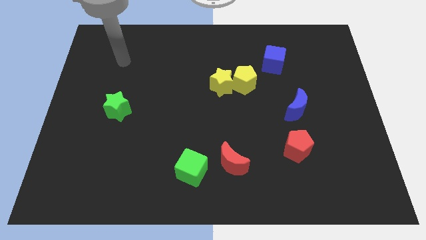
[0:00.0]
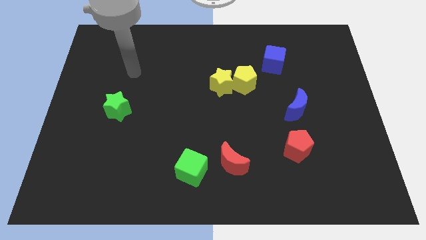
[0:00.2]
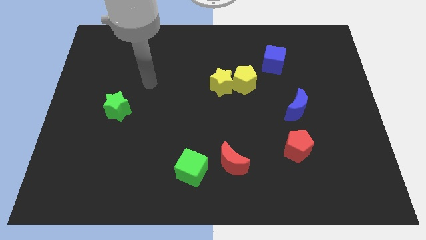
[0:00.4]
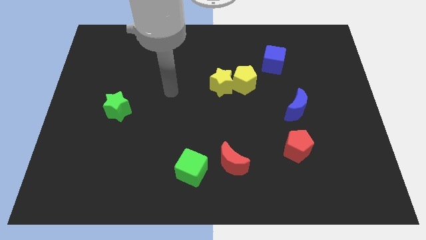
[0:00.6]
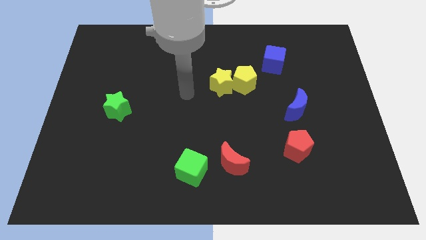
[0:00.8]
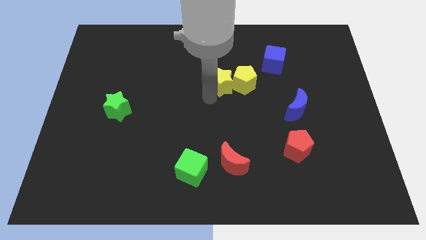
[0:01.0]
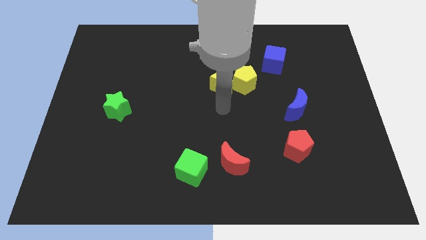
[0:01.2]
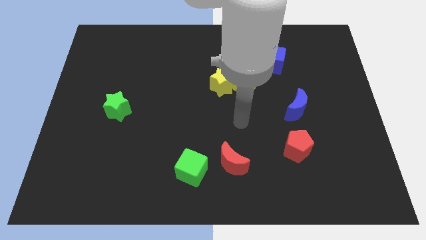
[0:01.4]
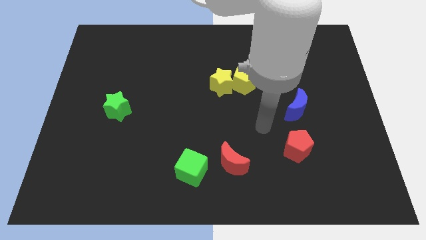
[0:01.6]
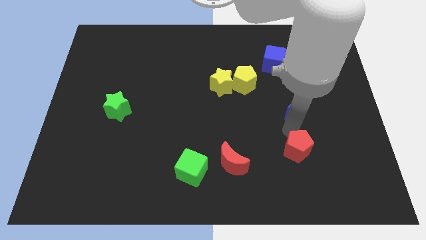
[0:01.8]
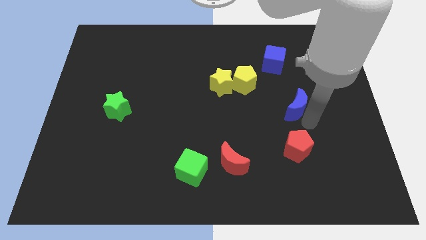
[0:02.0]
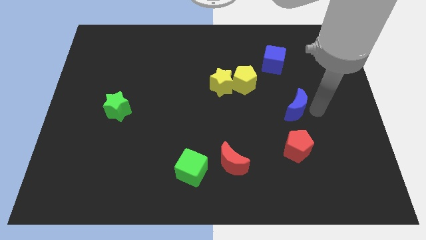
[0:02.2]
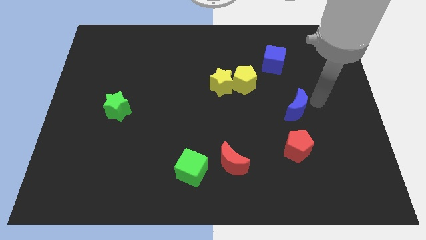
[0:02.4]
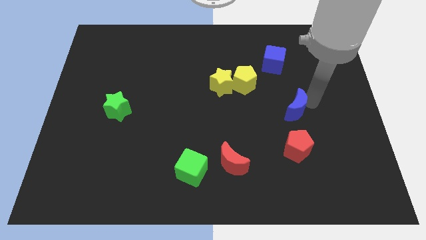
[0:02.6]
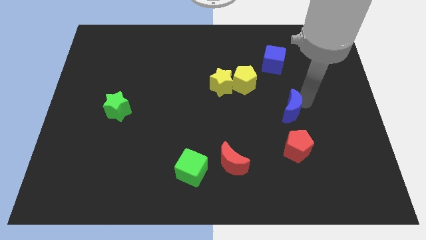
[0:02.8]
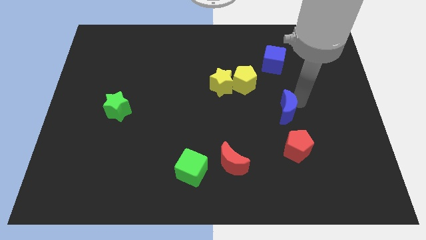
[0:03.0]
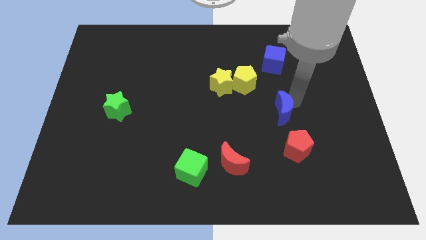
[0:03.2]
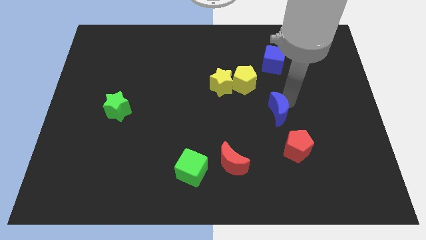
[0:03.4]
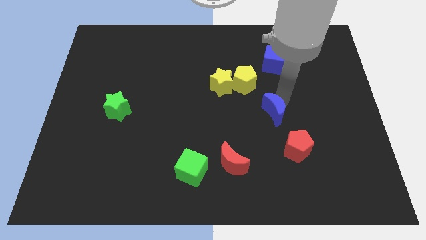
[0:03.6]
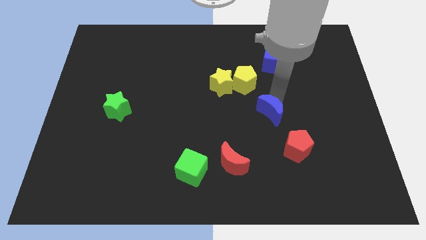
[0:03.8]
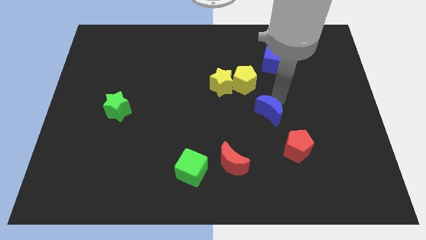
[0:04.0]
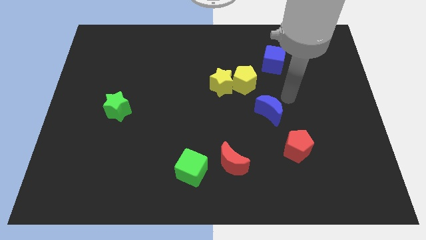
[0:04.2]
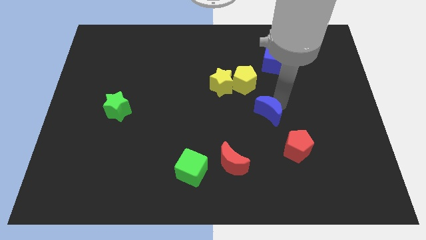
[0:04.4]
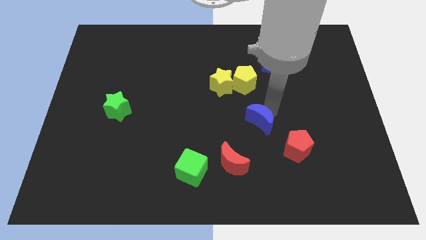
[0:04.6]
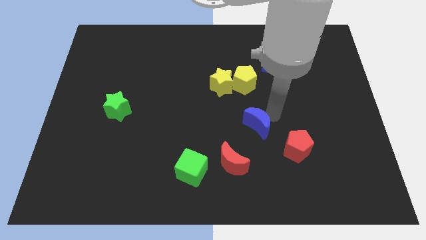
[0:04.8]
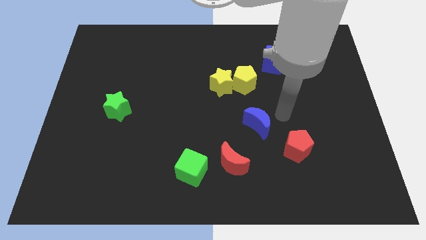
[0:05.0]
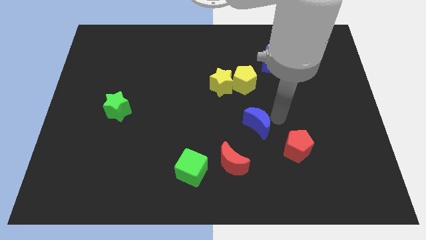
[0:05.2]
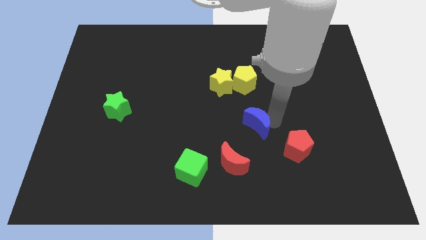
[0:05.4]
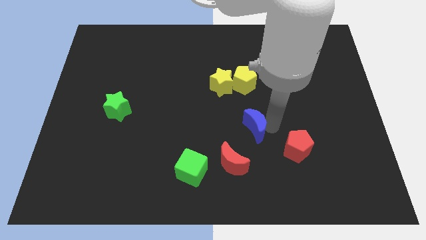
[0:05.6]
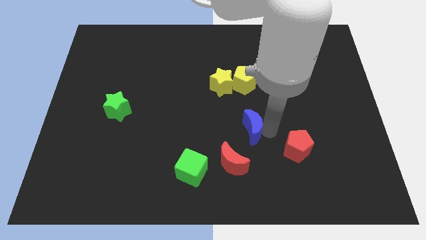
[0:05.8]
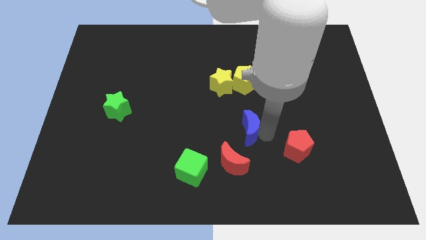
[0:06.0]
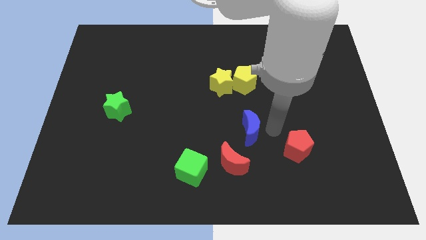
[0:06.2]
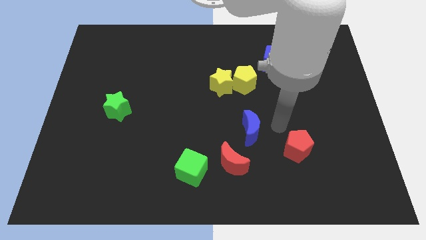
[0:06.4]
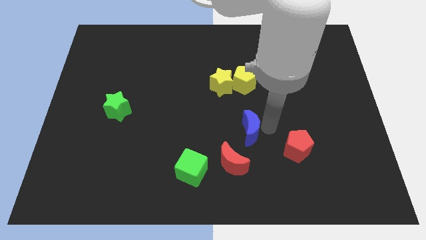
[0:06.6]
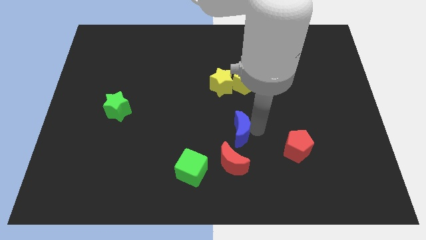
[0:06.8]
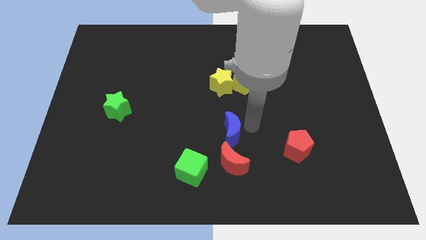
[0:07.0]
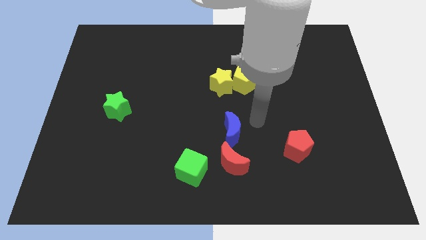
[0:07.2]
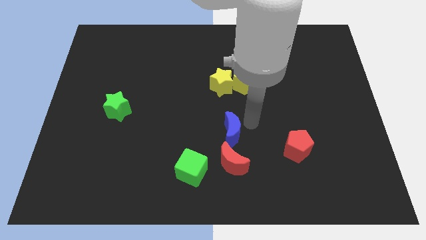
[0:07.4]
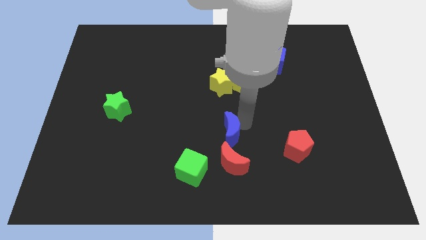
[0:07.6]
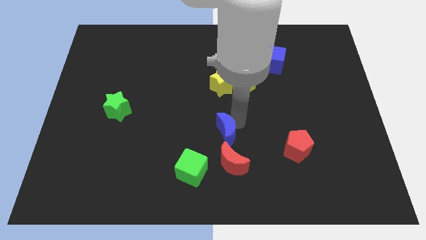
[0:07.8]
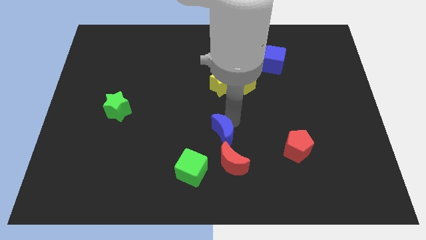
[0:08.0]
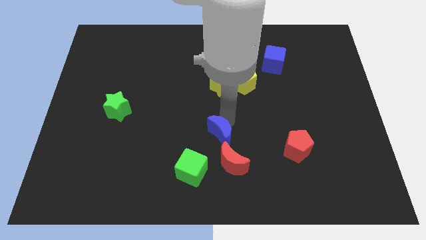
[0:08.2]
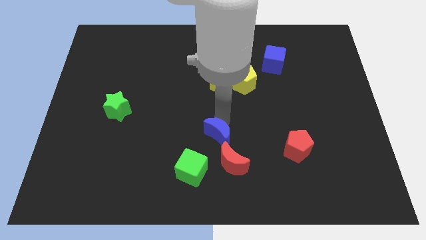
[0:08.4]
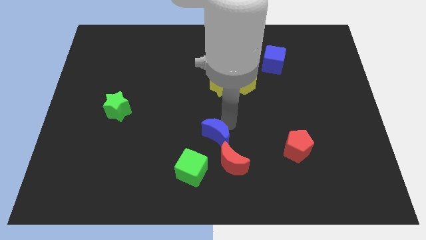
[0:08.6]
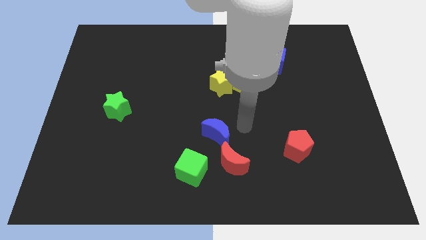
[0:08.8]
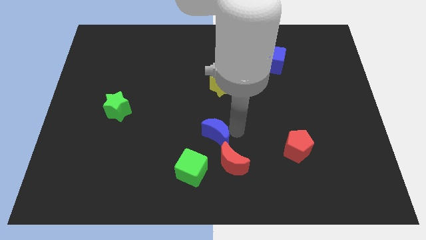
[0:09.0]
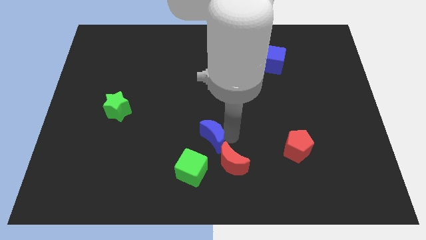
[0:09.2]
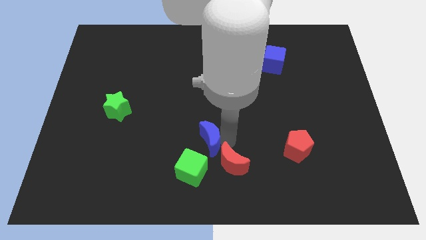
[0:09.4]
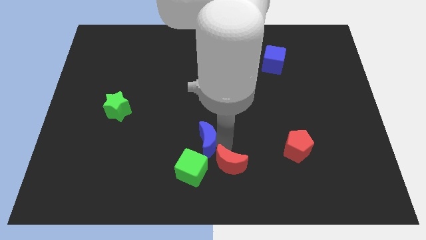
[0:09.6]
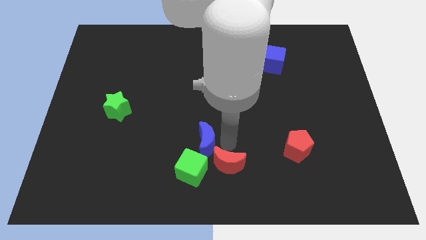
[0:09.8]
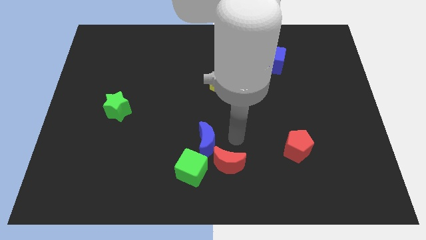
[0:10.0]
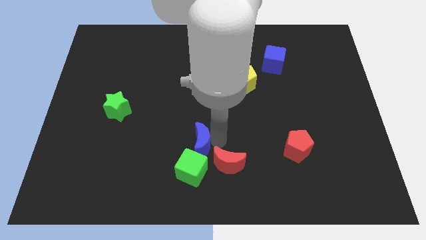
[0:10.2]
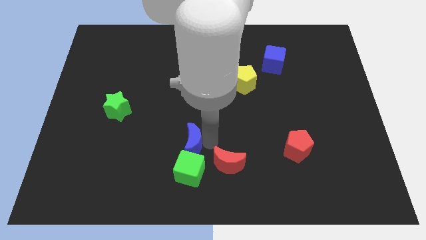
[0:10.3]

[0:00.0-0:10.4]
move the blue moon diagonally up and to the left of the green cube

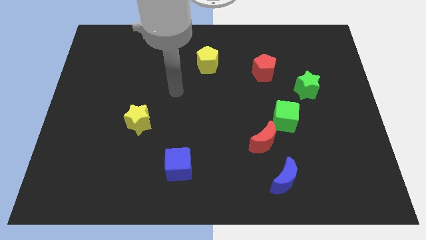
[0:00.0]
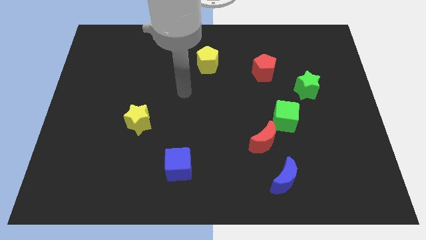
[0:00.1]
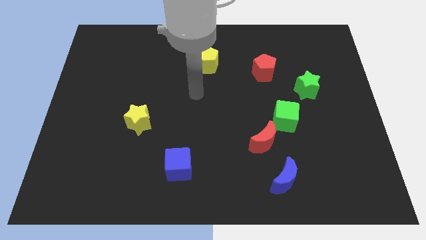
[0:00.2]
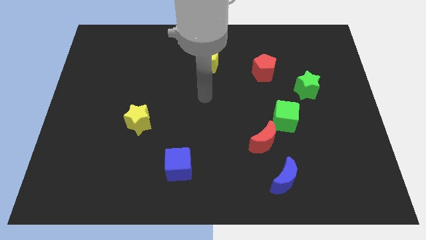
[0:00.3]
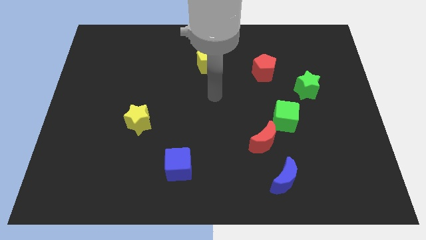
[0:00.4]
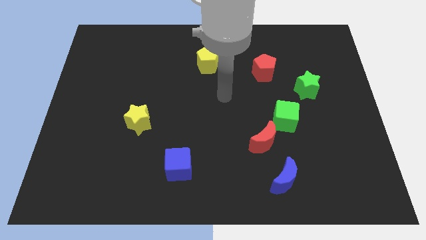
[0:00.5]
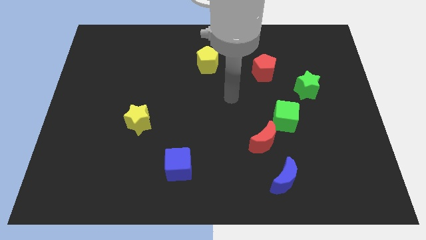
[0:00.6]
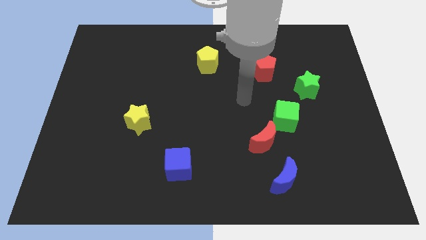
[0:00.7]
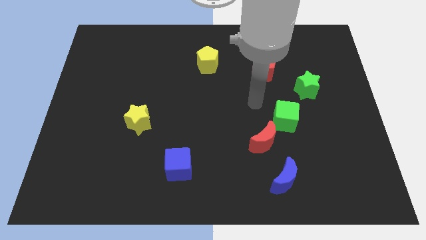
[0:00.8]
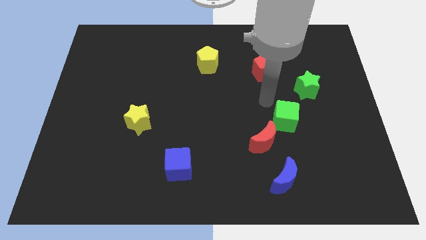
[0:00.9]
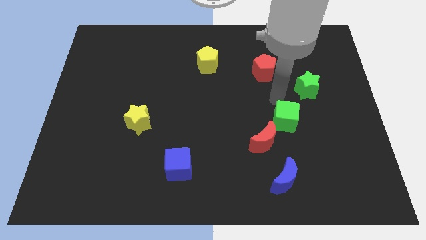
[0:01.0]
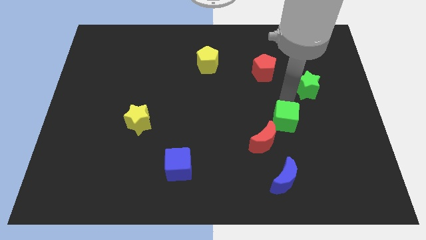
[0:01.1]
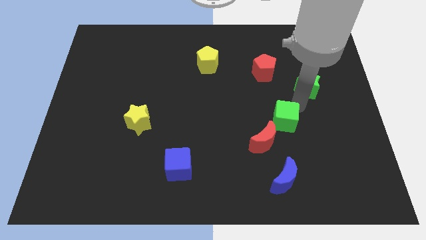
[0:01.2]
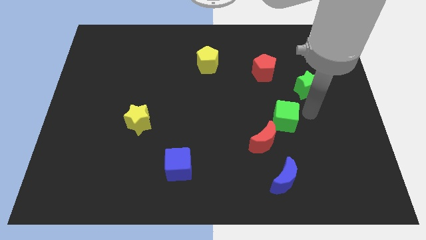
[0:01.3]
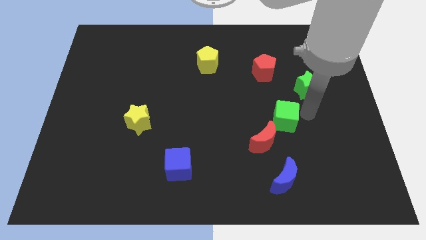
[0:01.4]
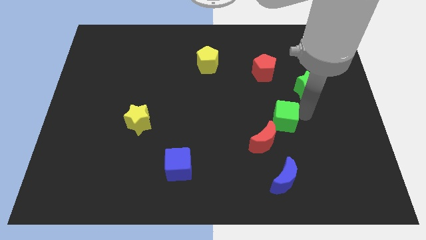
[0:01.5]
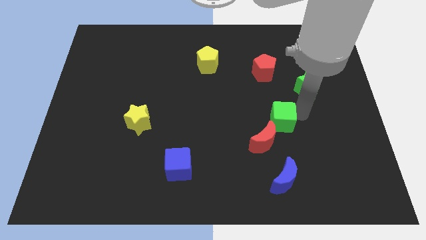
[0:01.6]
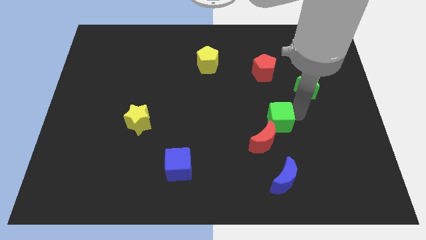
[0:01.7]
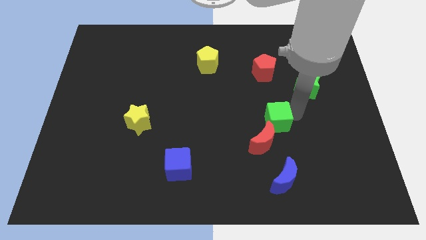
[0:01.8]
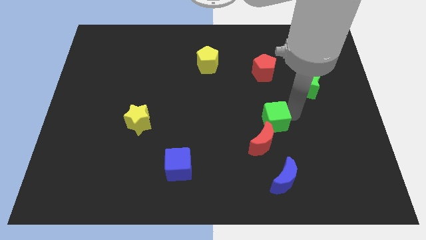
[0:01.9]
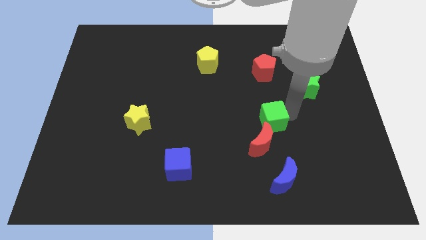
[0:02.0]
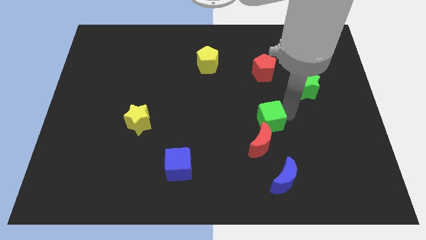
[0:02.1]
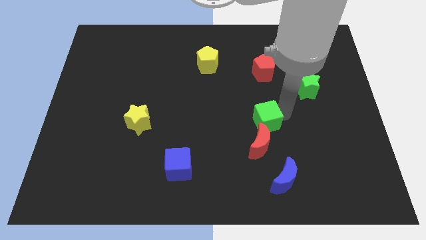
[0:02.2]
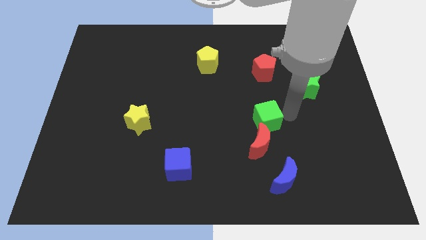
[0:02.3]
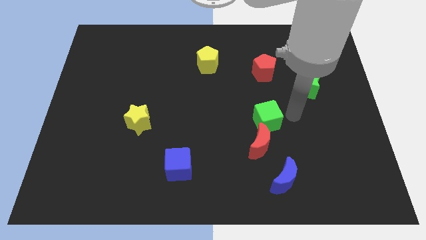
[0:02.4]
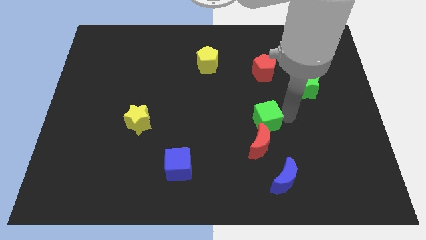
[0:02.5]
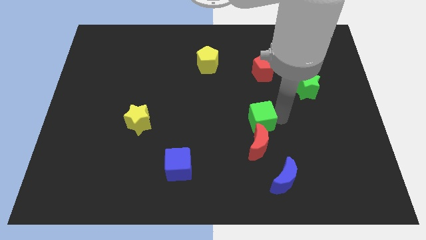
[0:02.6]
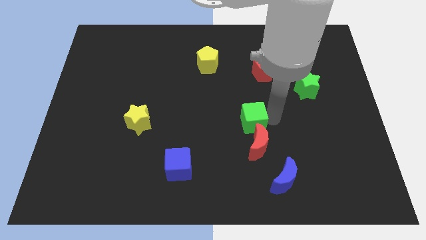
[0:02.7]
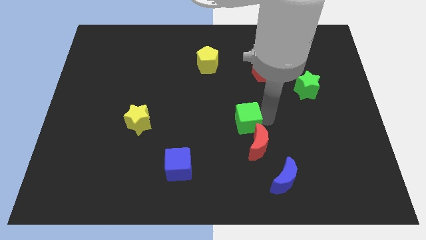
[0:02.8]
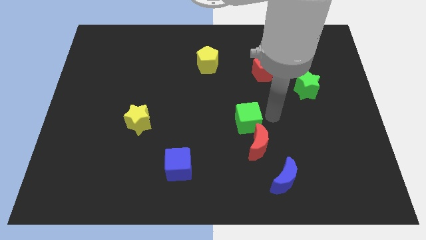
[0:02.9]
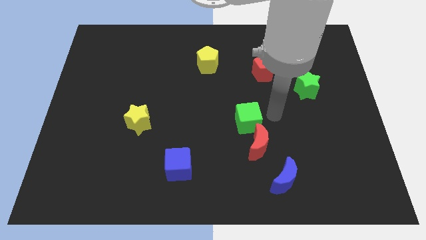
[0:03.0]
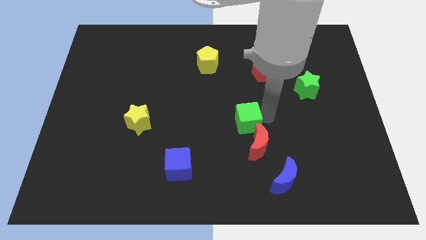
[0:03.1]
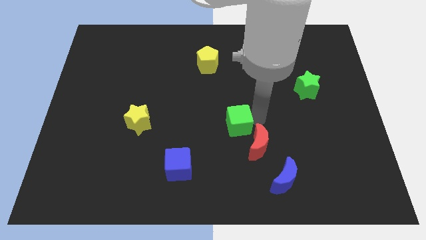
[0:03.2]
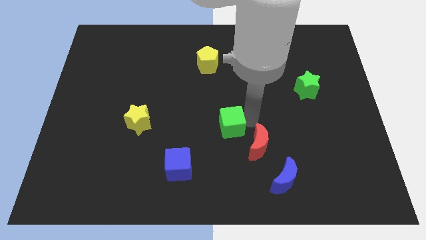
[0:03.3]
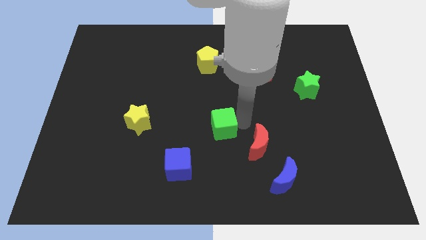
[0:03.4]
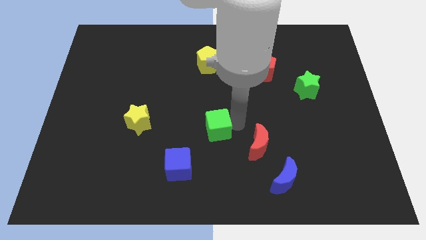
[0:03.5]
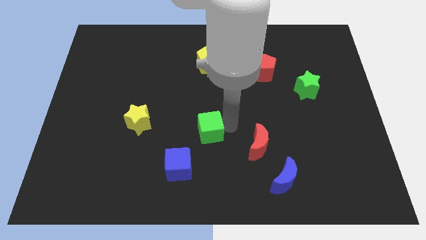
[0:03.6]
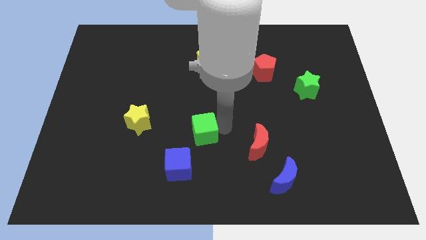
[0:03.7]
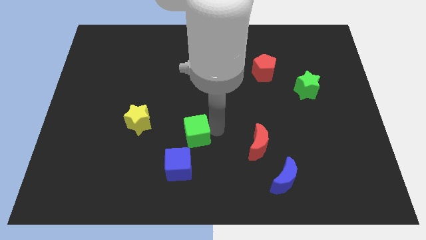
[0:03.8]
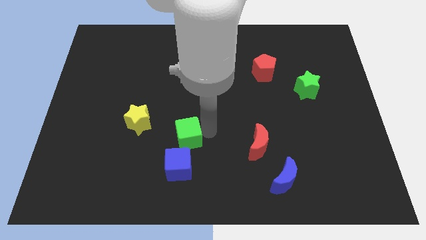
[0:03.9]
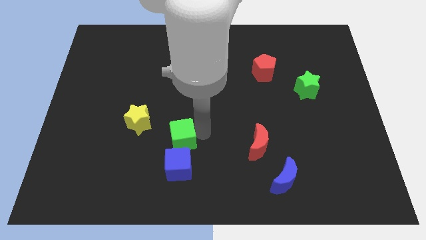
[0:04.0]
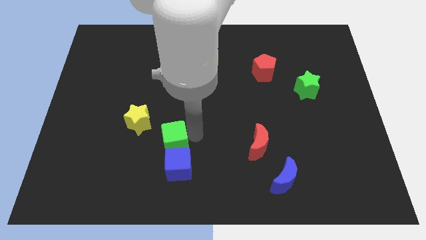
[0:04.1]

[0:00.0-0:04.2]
slide the green cube to the top left side of the blue cube
